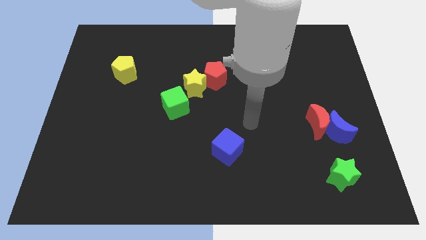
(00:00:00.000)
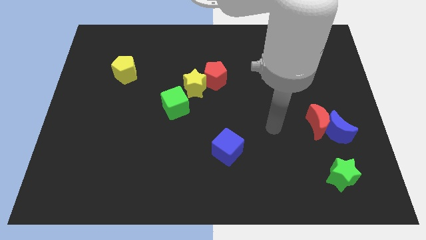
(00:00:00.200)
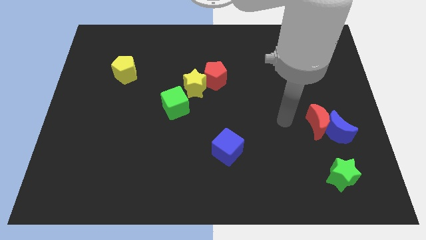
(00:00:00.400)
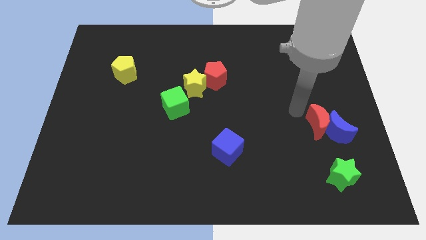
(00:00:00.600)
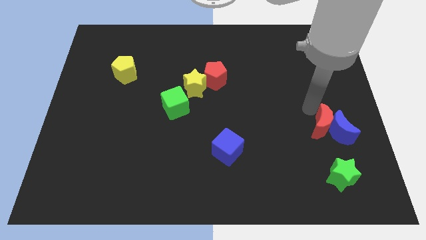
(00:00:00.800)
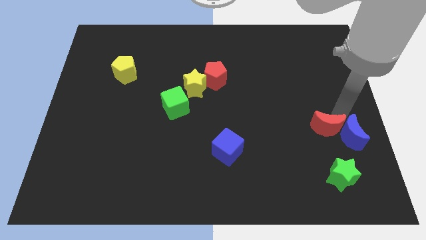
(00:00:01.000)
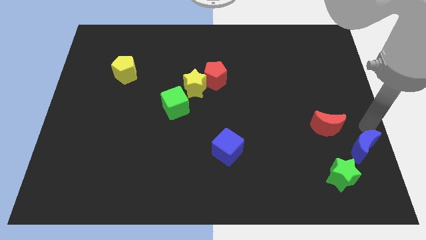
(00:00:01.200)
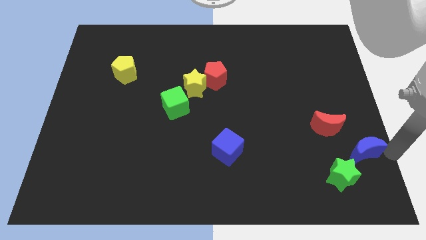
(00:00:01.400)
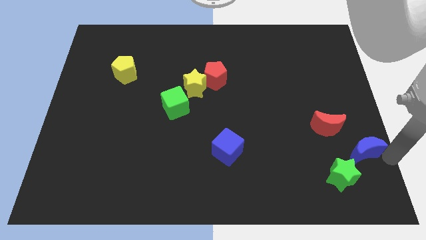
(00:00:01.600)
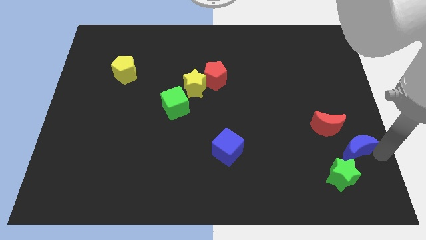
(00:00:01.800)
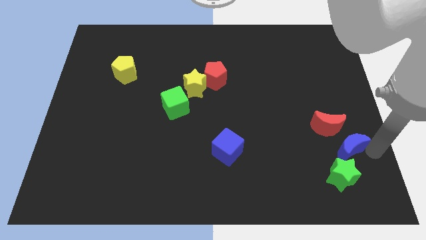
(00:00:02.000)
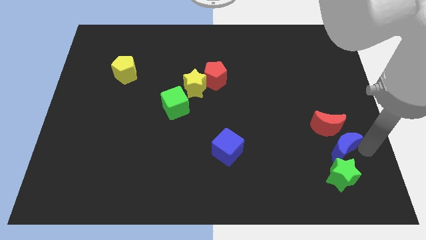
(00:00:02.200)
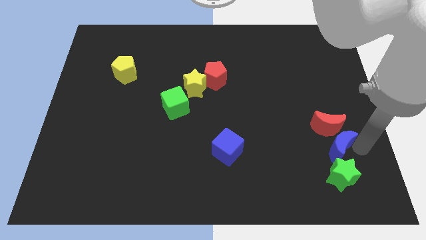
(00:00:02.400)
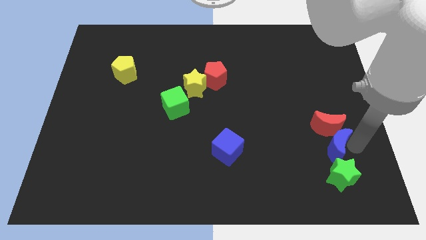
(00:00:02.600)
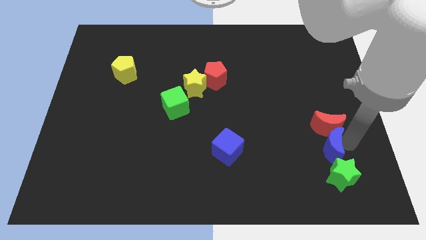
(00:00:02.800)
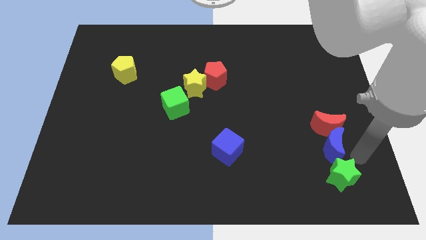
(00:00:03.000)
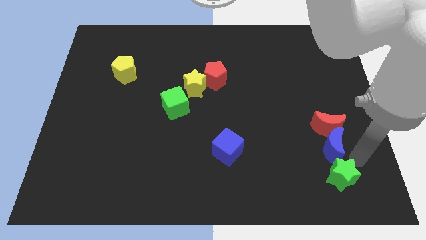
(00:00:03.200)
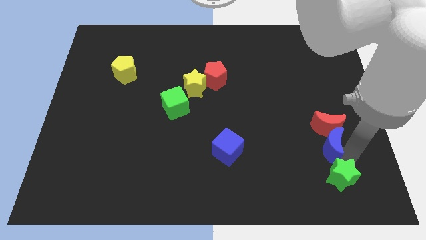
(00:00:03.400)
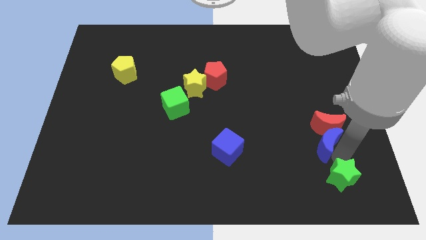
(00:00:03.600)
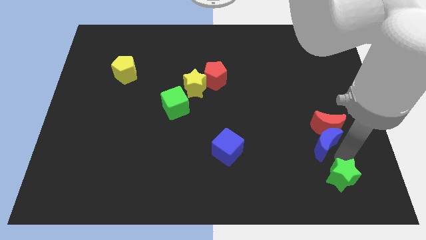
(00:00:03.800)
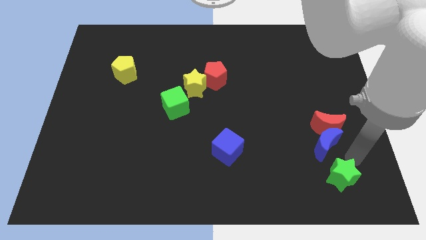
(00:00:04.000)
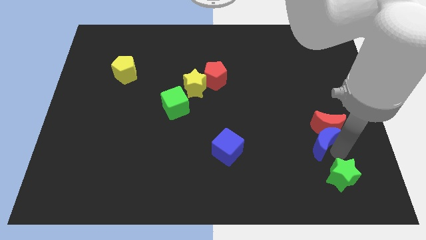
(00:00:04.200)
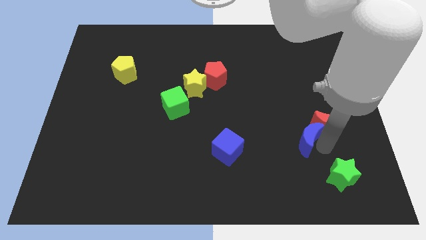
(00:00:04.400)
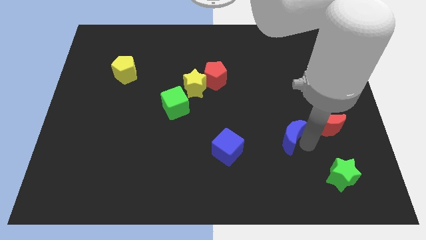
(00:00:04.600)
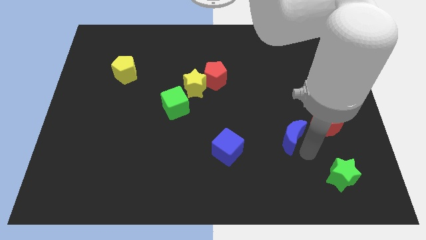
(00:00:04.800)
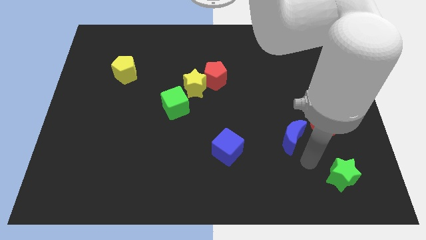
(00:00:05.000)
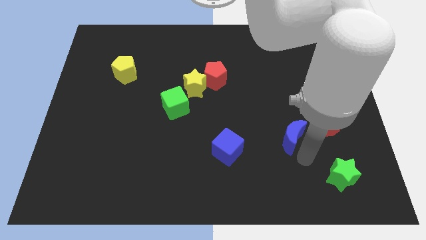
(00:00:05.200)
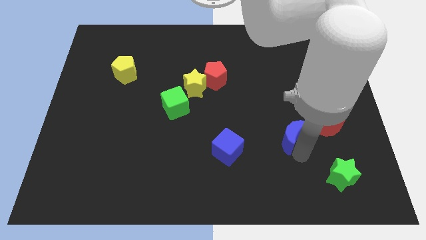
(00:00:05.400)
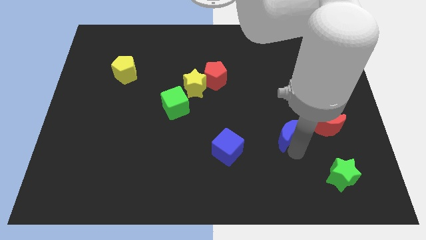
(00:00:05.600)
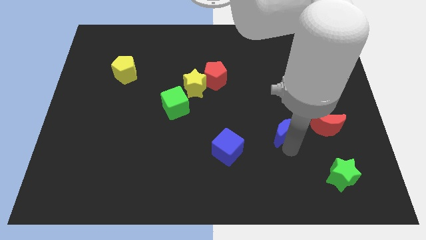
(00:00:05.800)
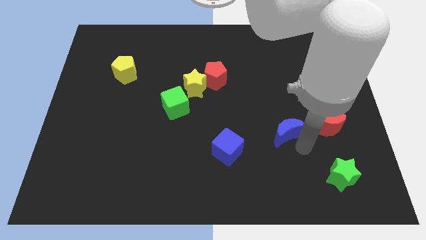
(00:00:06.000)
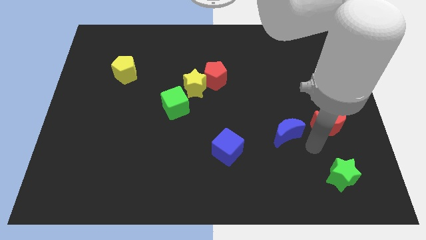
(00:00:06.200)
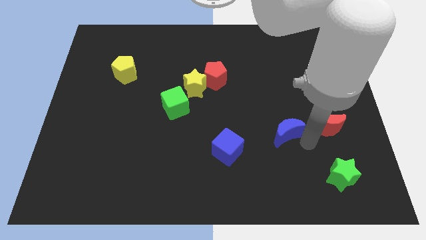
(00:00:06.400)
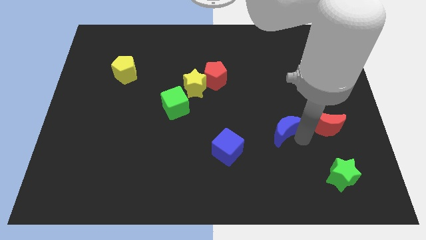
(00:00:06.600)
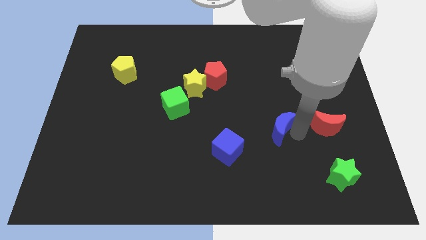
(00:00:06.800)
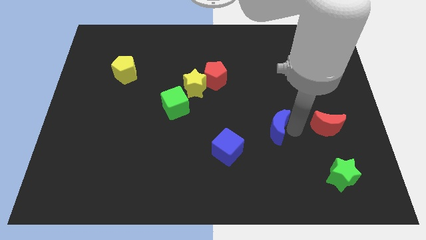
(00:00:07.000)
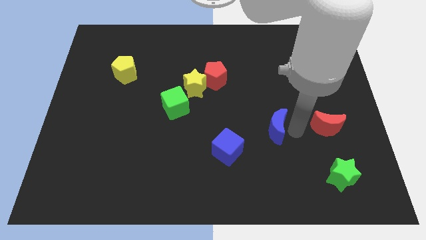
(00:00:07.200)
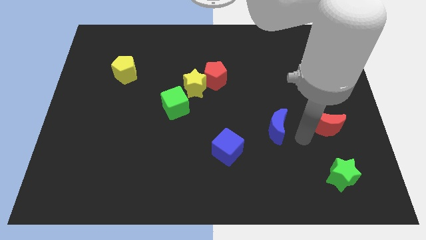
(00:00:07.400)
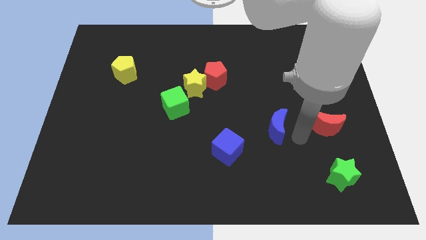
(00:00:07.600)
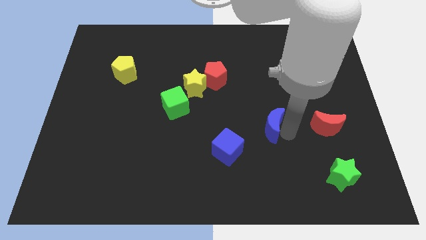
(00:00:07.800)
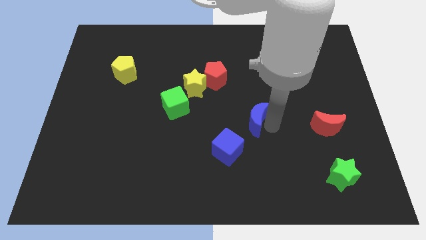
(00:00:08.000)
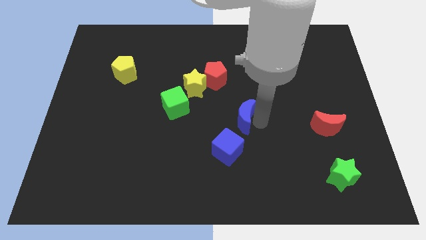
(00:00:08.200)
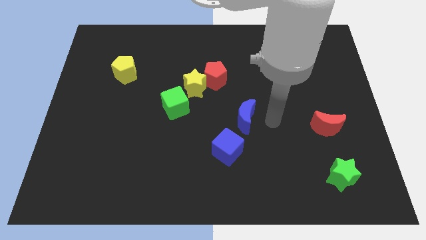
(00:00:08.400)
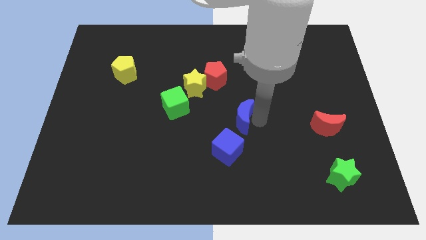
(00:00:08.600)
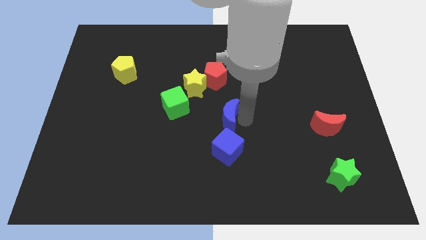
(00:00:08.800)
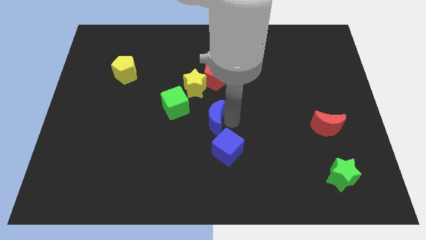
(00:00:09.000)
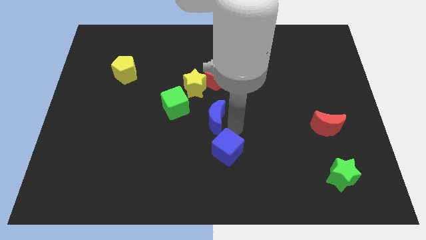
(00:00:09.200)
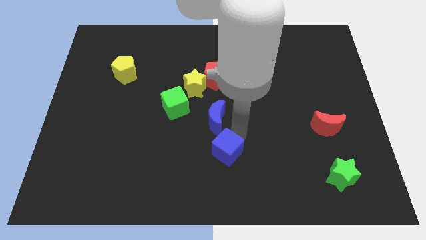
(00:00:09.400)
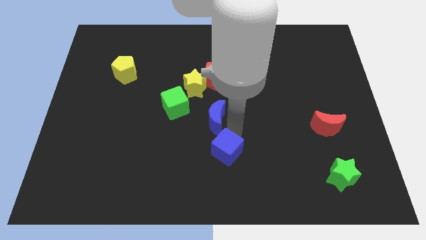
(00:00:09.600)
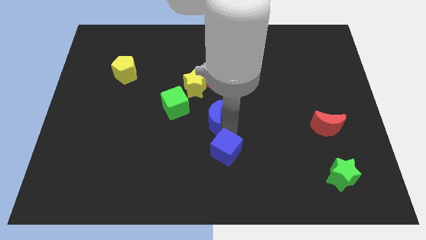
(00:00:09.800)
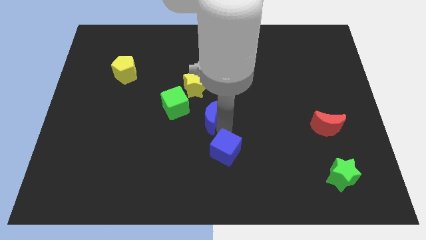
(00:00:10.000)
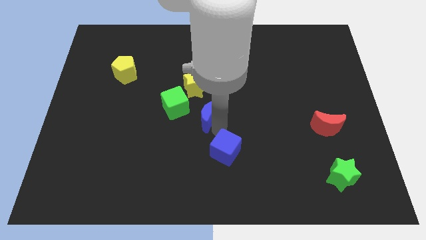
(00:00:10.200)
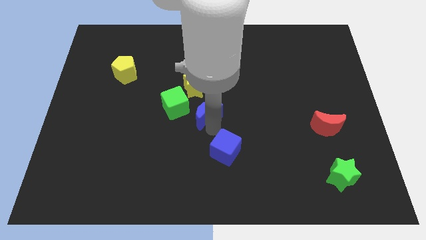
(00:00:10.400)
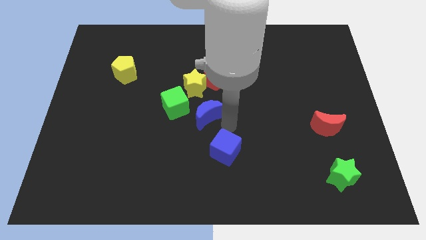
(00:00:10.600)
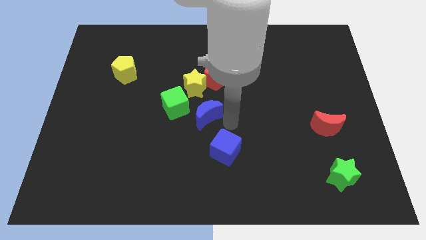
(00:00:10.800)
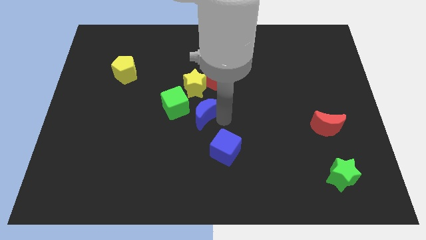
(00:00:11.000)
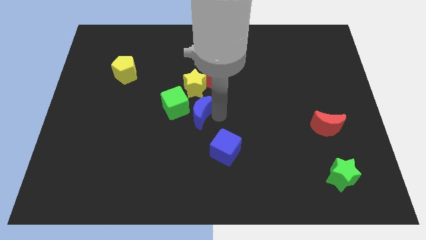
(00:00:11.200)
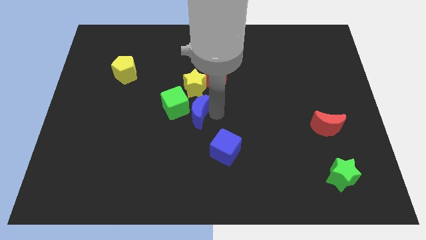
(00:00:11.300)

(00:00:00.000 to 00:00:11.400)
slide the blue moon next to the green cube

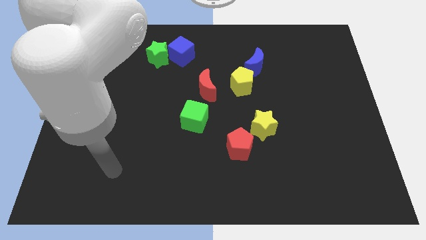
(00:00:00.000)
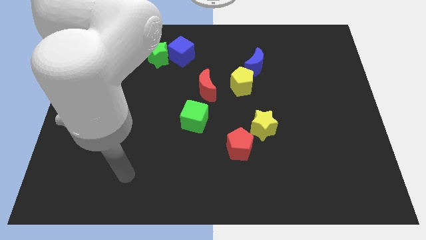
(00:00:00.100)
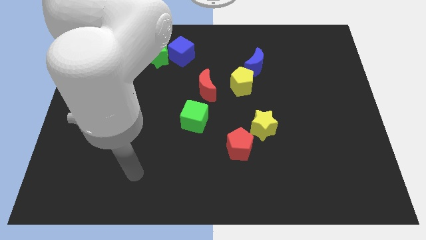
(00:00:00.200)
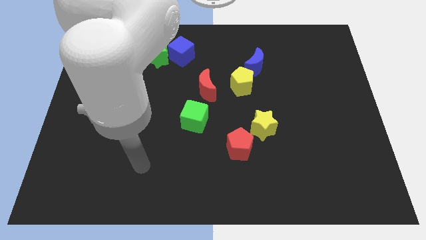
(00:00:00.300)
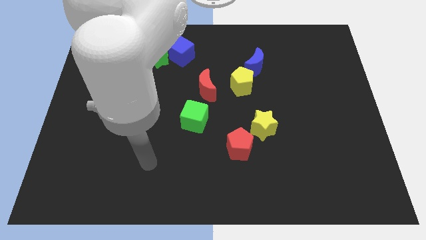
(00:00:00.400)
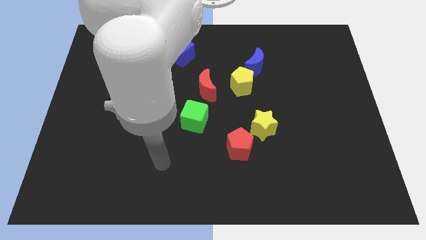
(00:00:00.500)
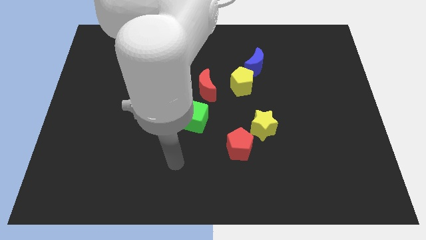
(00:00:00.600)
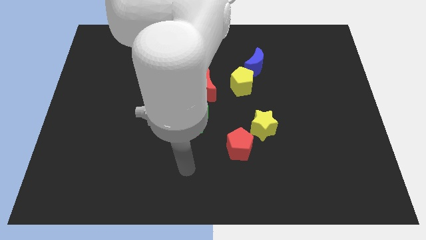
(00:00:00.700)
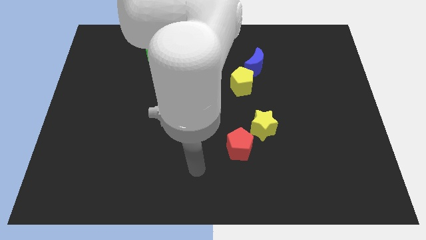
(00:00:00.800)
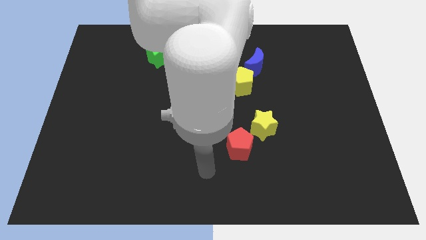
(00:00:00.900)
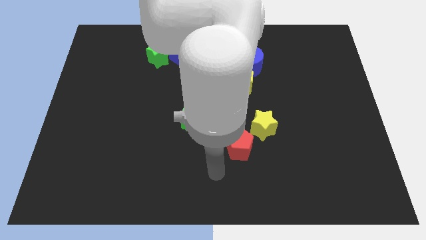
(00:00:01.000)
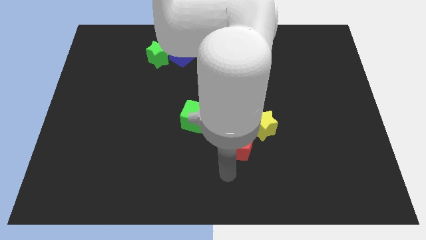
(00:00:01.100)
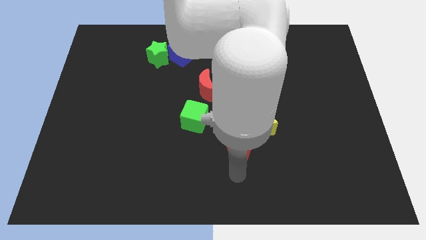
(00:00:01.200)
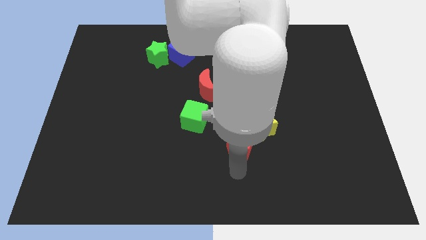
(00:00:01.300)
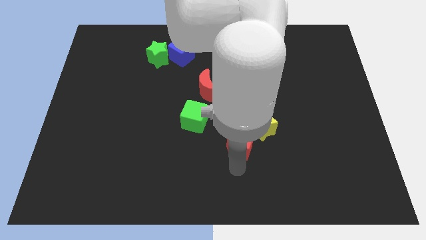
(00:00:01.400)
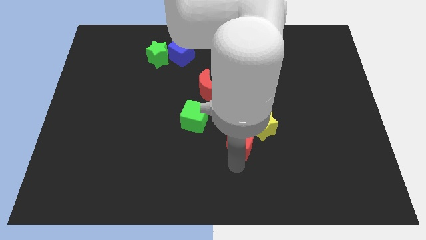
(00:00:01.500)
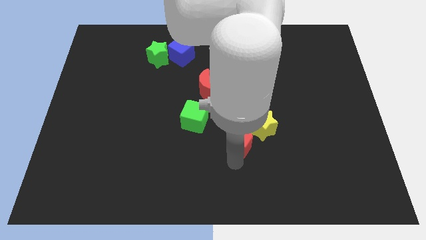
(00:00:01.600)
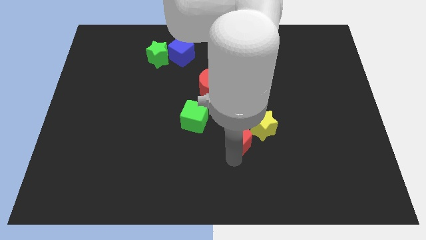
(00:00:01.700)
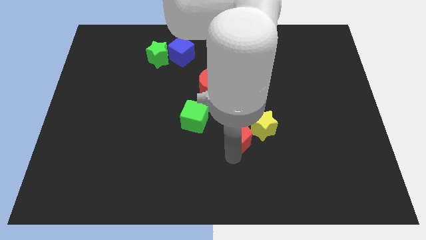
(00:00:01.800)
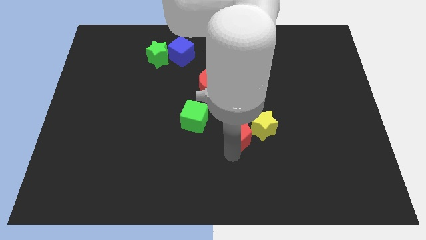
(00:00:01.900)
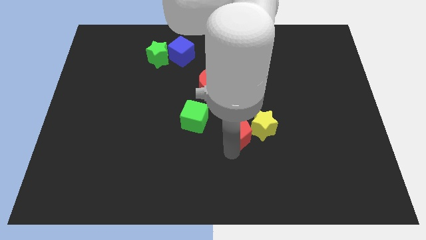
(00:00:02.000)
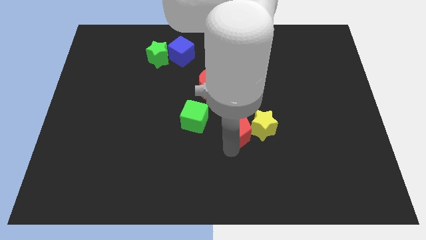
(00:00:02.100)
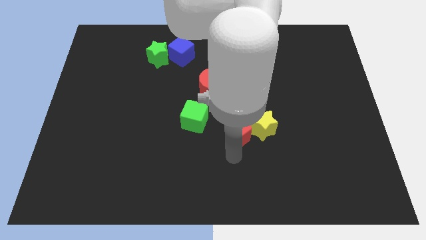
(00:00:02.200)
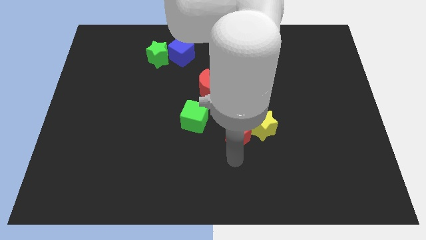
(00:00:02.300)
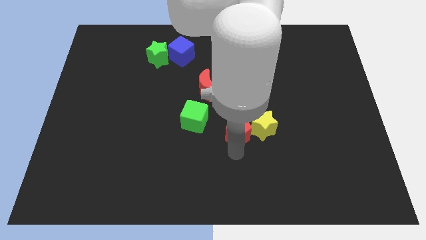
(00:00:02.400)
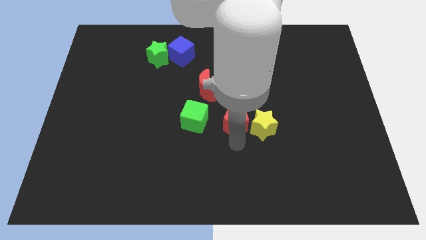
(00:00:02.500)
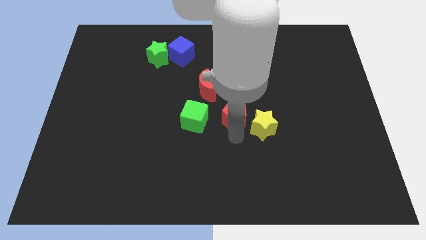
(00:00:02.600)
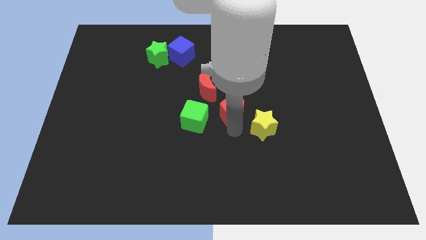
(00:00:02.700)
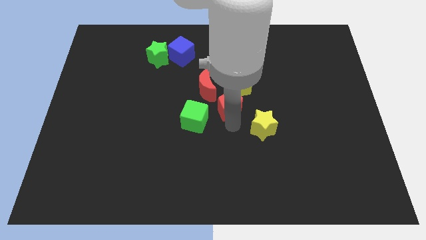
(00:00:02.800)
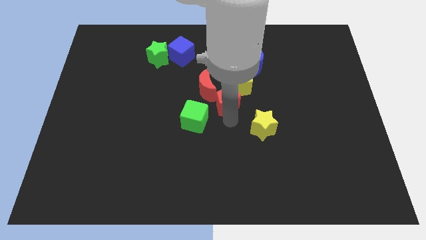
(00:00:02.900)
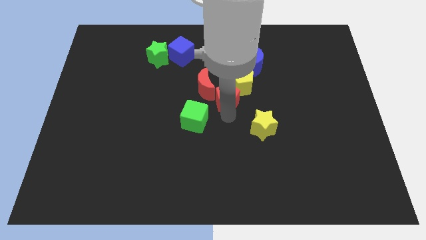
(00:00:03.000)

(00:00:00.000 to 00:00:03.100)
move the red pentagon next to the yellow pentagon
